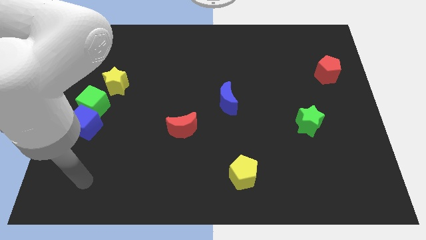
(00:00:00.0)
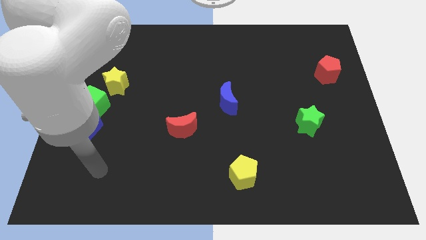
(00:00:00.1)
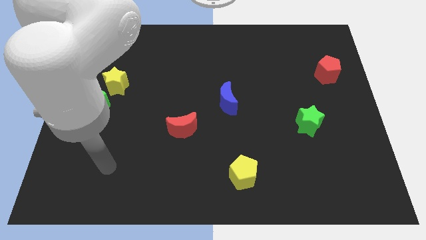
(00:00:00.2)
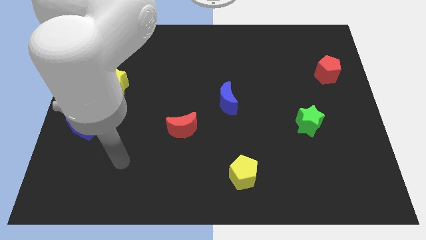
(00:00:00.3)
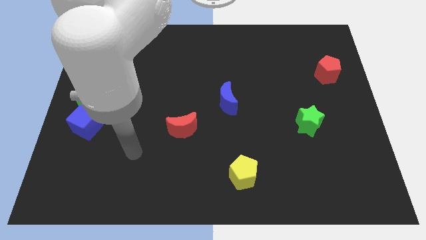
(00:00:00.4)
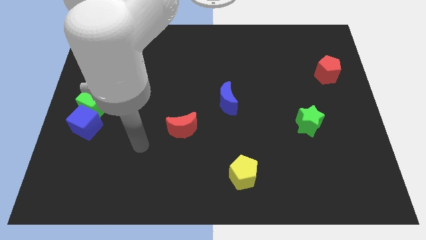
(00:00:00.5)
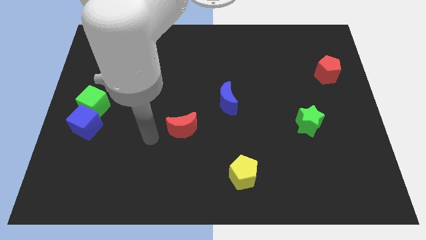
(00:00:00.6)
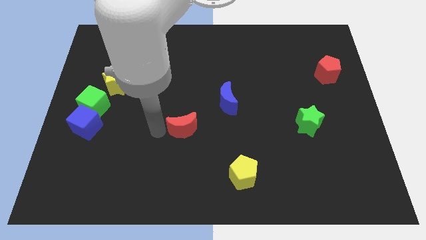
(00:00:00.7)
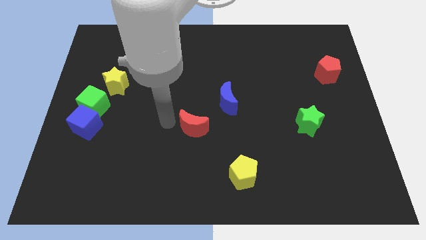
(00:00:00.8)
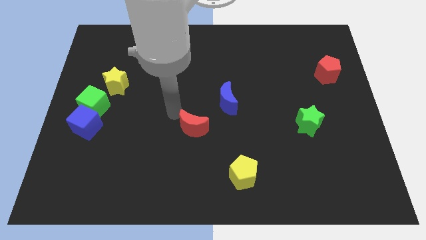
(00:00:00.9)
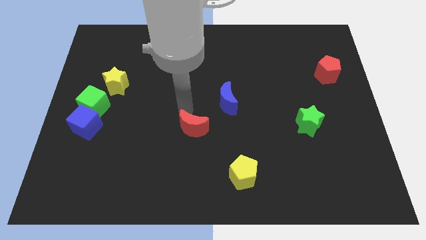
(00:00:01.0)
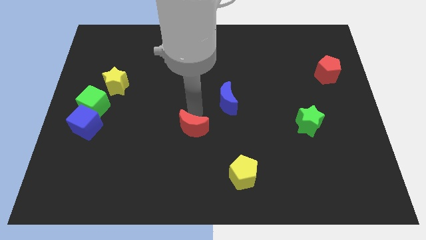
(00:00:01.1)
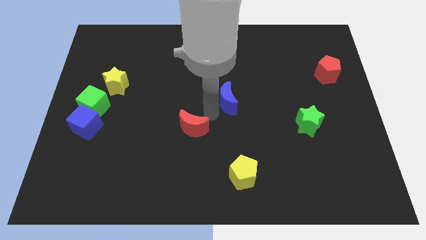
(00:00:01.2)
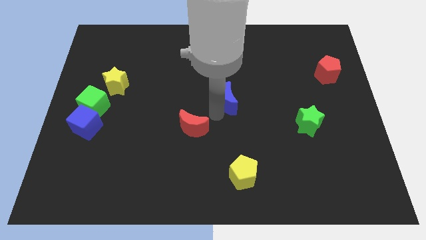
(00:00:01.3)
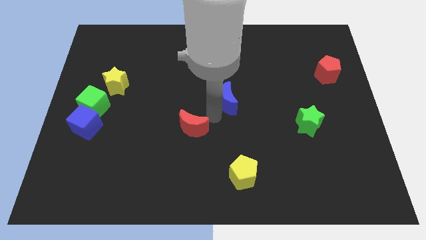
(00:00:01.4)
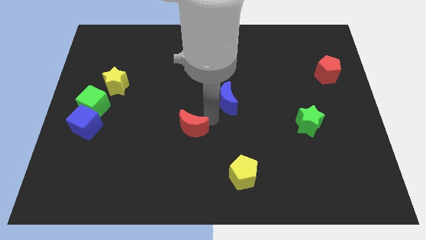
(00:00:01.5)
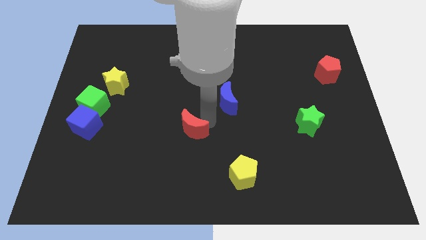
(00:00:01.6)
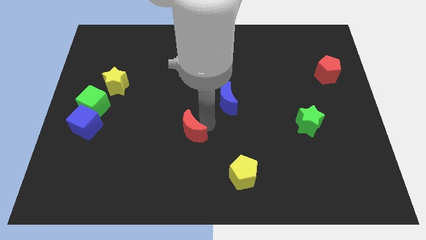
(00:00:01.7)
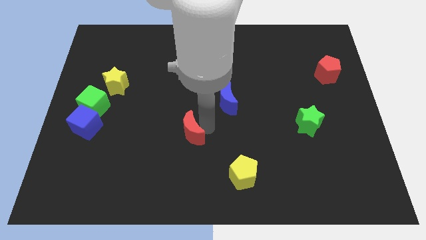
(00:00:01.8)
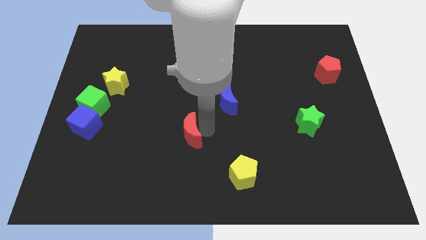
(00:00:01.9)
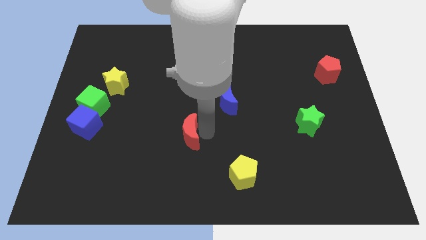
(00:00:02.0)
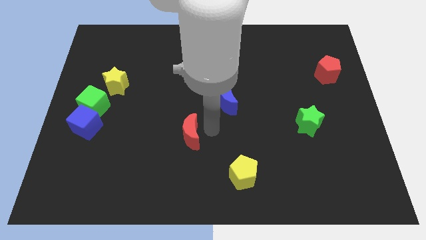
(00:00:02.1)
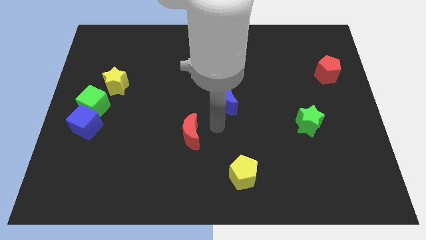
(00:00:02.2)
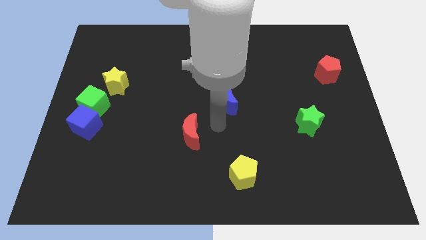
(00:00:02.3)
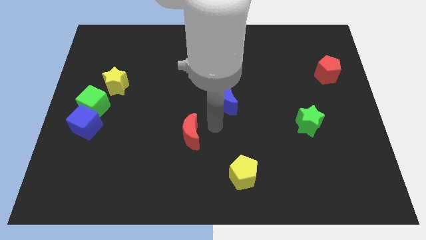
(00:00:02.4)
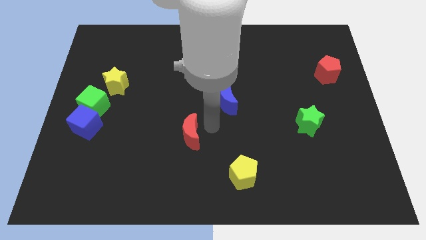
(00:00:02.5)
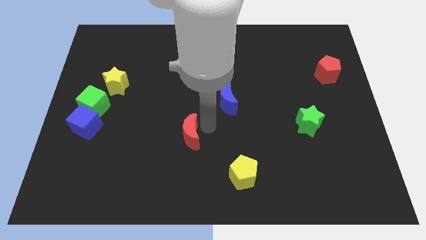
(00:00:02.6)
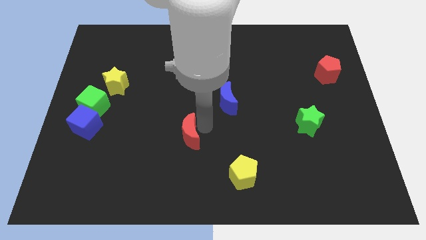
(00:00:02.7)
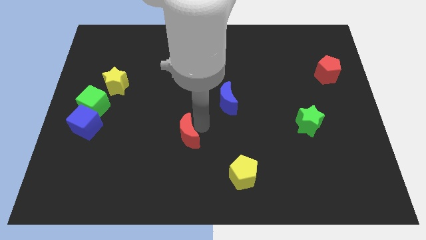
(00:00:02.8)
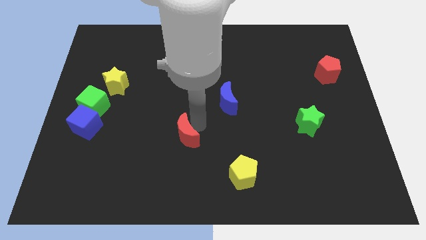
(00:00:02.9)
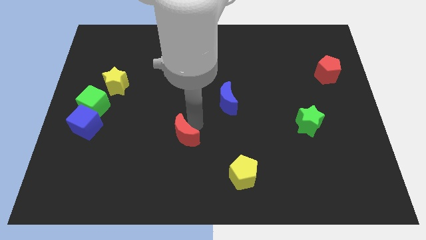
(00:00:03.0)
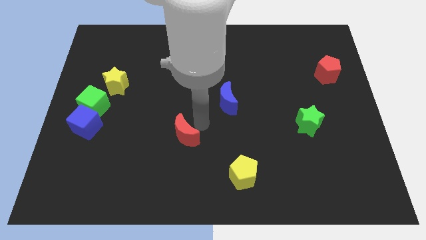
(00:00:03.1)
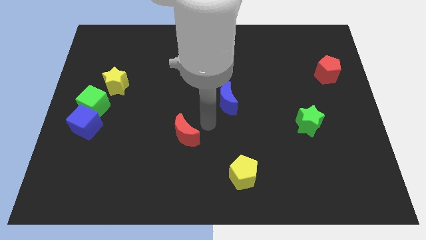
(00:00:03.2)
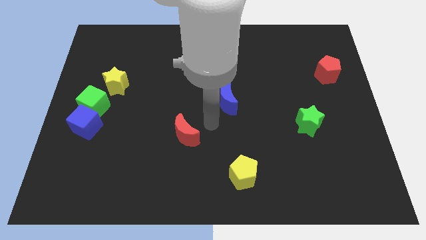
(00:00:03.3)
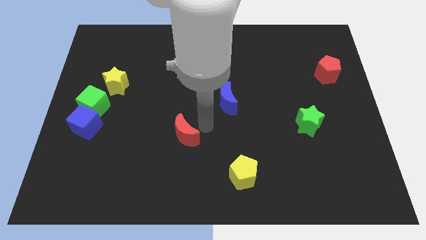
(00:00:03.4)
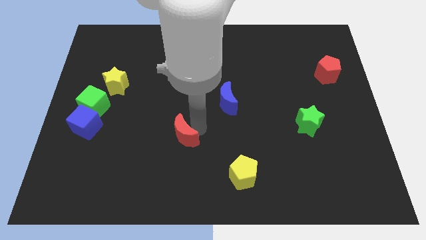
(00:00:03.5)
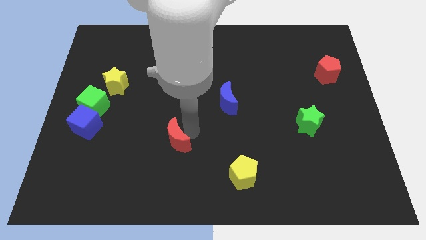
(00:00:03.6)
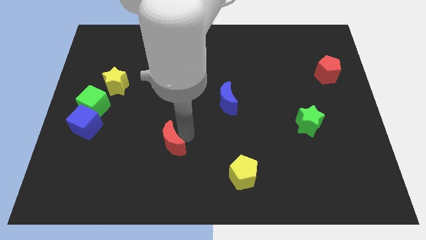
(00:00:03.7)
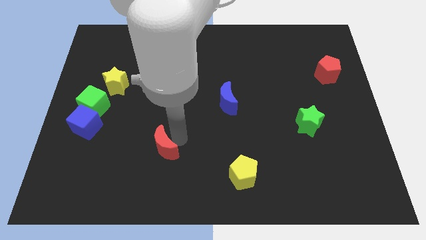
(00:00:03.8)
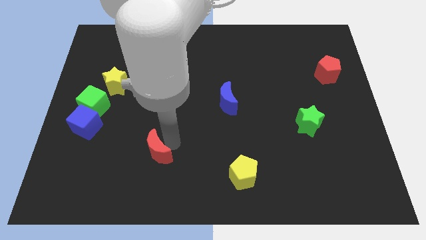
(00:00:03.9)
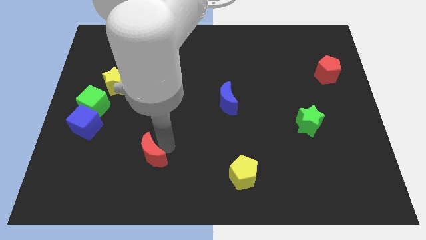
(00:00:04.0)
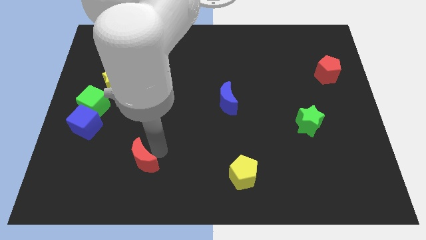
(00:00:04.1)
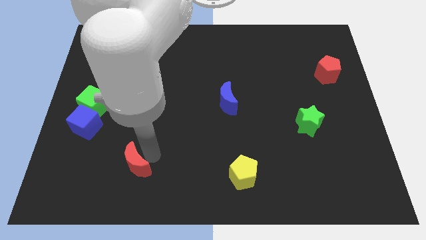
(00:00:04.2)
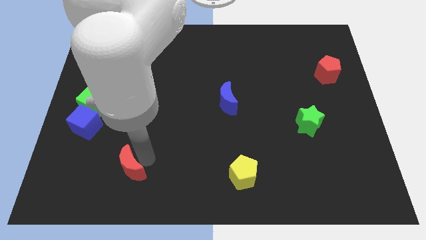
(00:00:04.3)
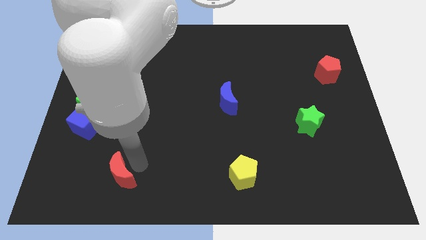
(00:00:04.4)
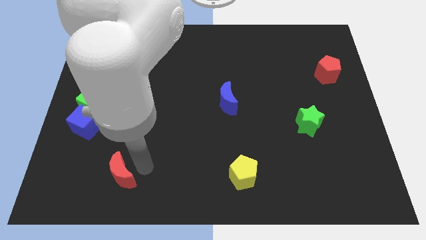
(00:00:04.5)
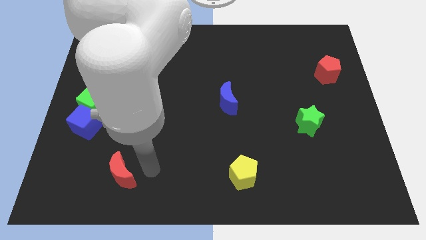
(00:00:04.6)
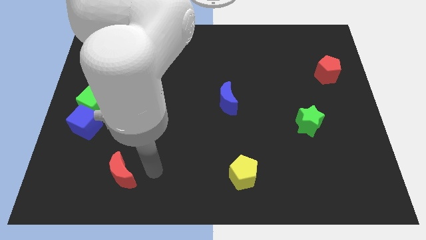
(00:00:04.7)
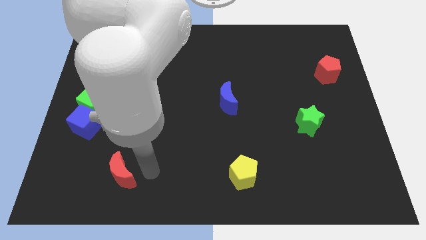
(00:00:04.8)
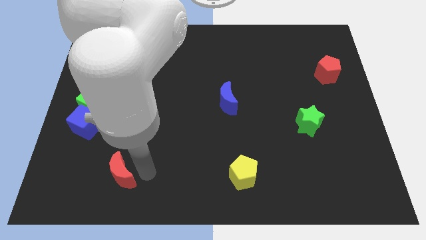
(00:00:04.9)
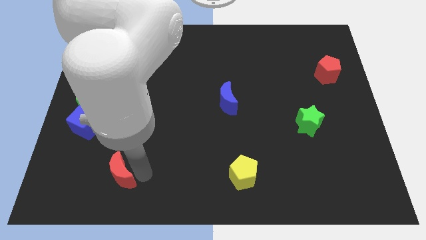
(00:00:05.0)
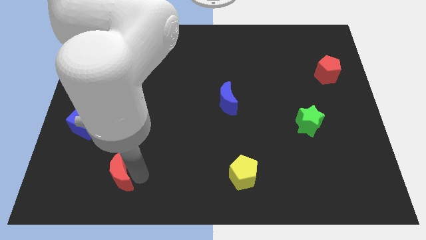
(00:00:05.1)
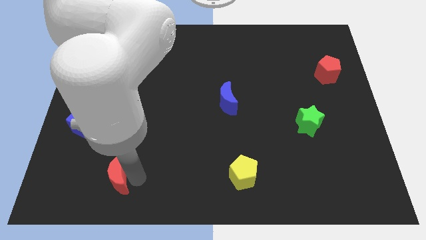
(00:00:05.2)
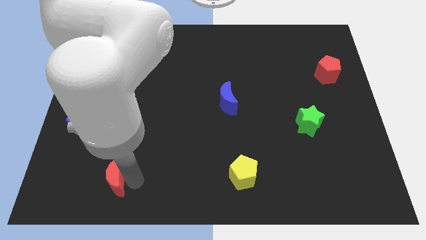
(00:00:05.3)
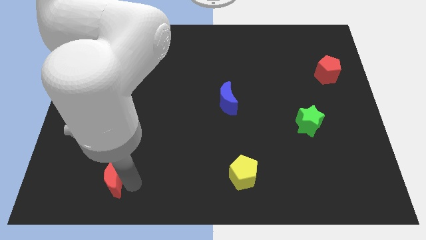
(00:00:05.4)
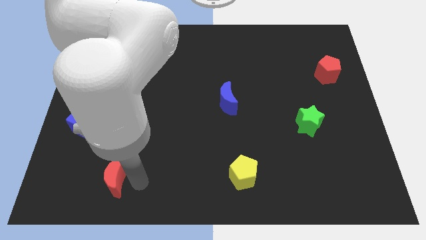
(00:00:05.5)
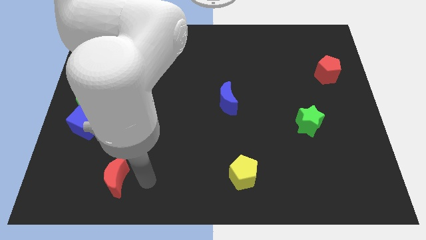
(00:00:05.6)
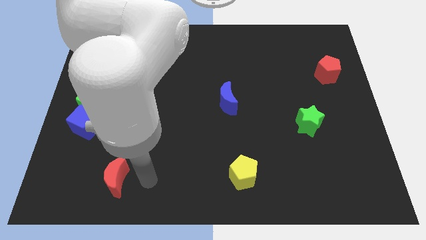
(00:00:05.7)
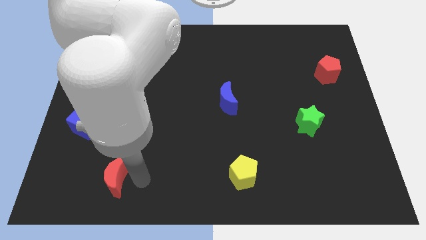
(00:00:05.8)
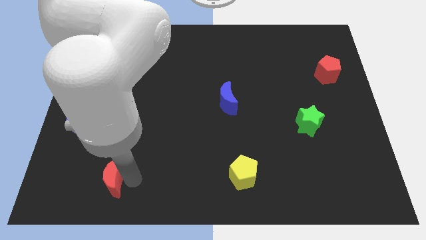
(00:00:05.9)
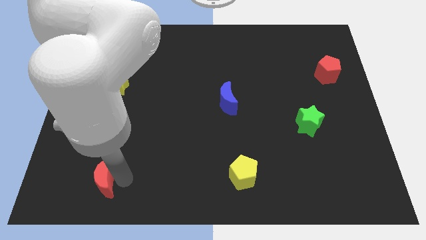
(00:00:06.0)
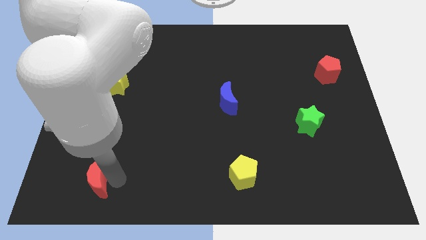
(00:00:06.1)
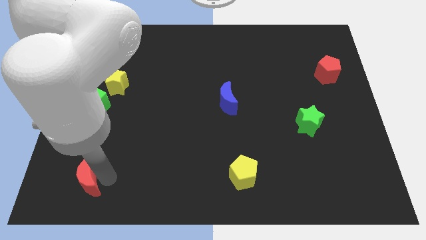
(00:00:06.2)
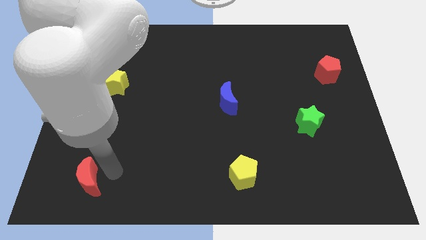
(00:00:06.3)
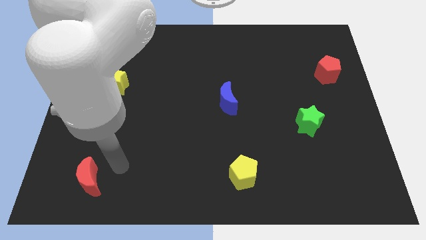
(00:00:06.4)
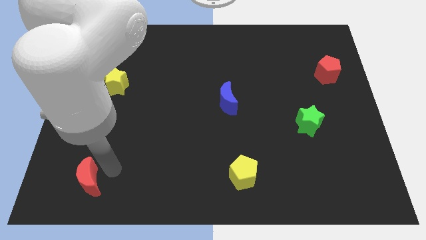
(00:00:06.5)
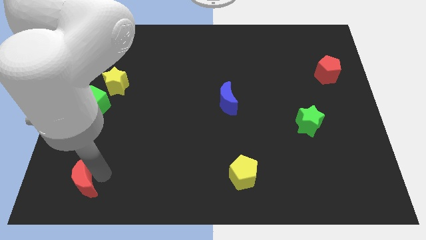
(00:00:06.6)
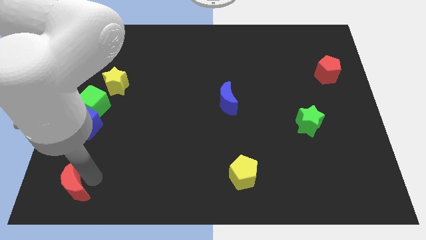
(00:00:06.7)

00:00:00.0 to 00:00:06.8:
slide the red moon to the lower left corner
